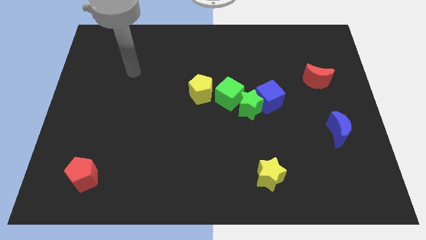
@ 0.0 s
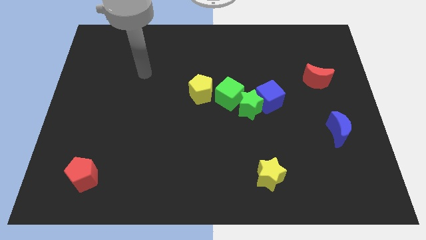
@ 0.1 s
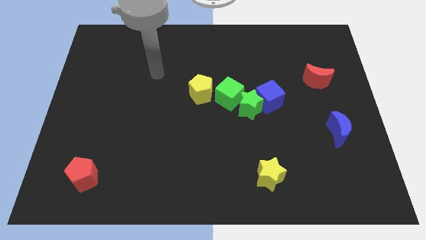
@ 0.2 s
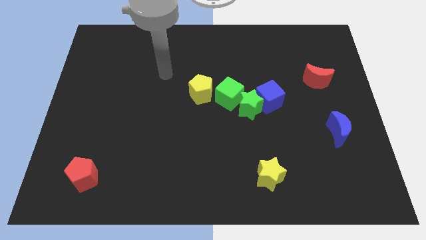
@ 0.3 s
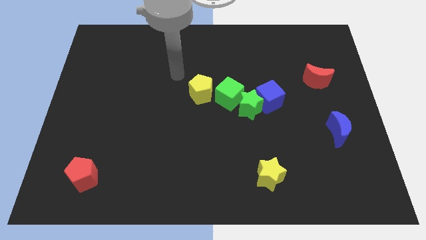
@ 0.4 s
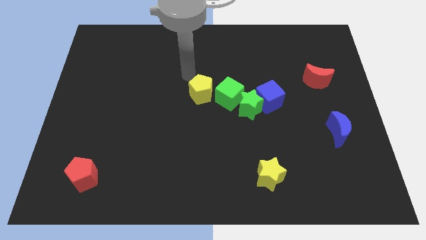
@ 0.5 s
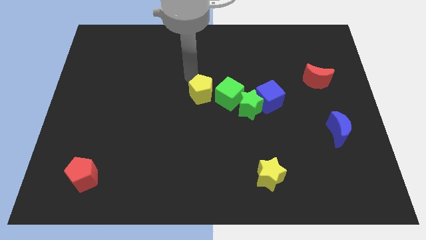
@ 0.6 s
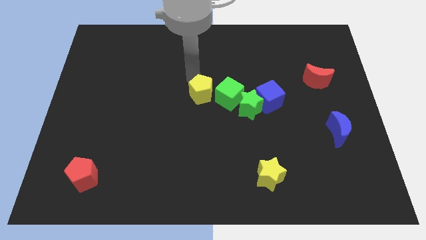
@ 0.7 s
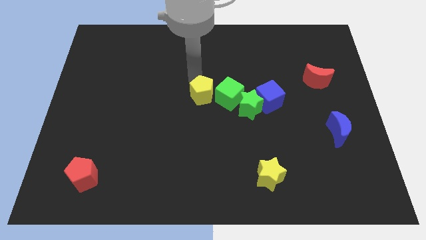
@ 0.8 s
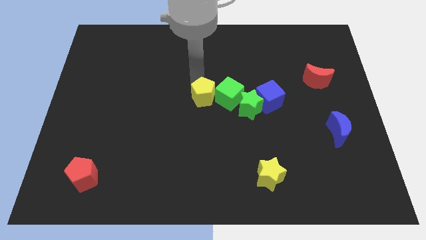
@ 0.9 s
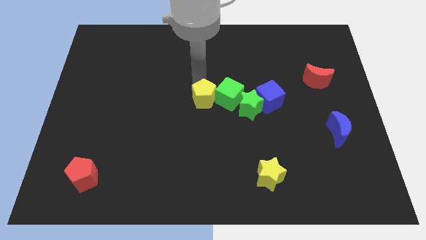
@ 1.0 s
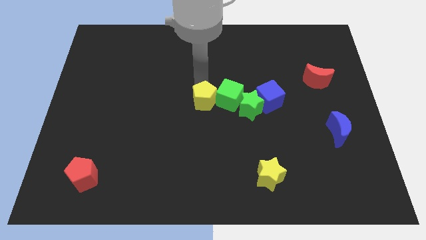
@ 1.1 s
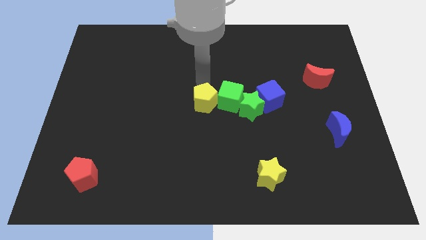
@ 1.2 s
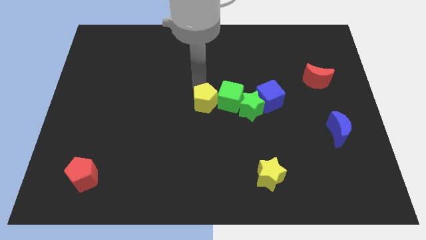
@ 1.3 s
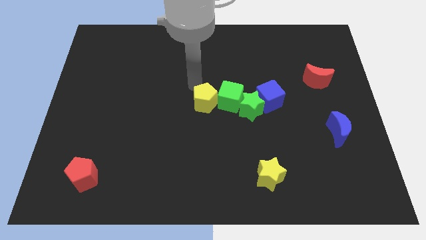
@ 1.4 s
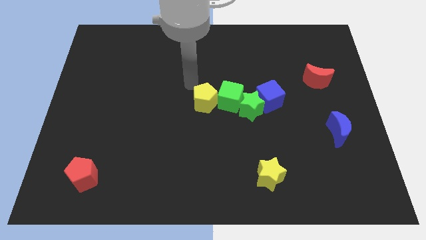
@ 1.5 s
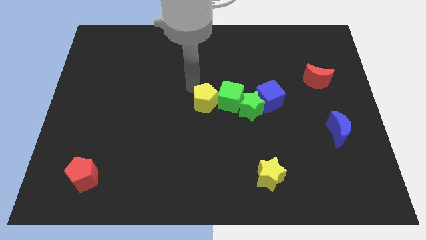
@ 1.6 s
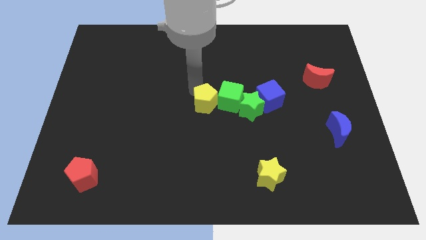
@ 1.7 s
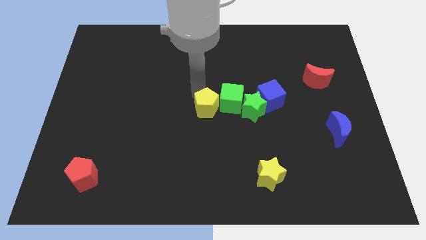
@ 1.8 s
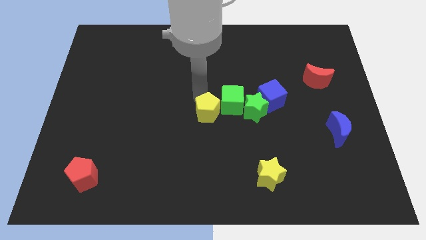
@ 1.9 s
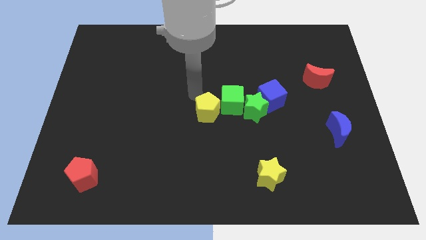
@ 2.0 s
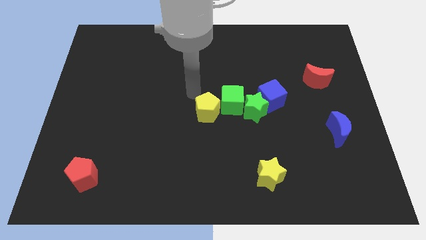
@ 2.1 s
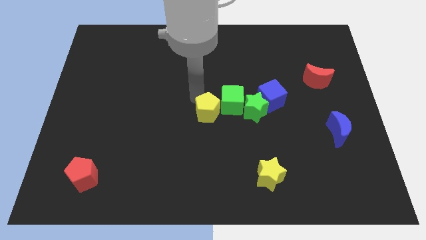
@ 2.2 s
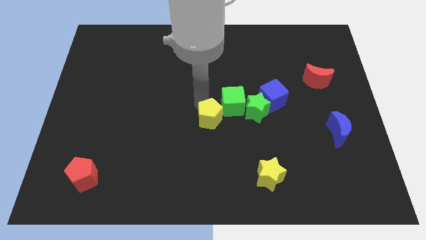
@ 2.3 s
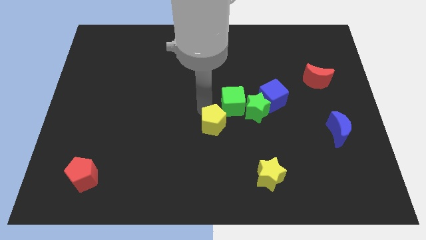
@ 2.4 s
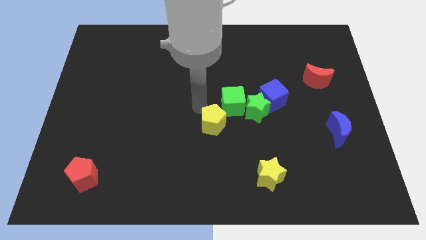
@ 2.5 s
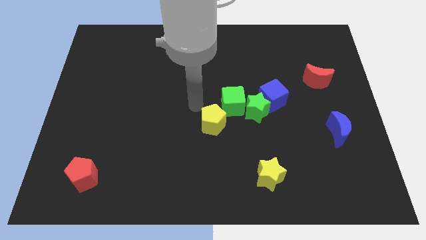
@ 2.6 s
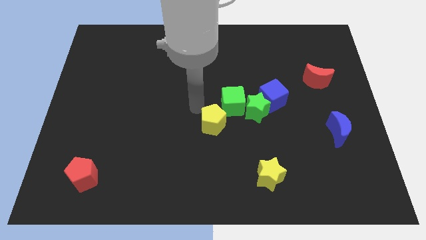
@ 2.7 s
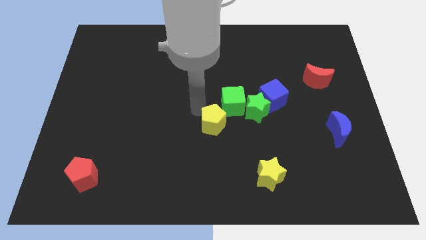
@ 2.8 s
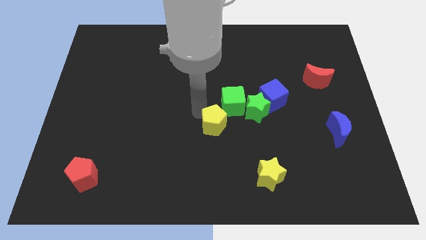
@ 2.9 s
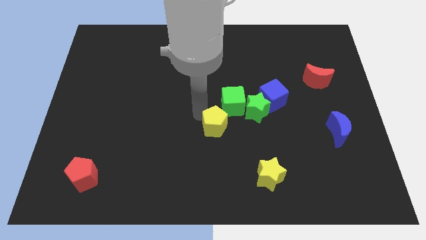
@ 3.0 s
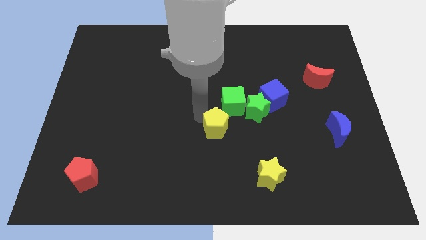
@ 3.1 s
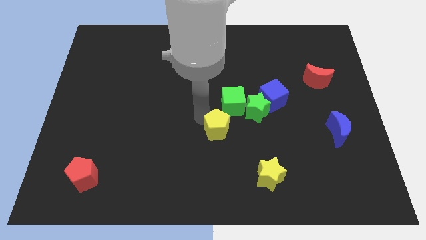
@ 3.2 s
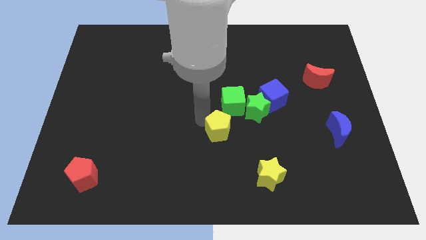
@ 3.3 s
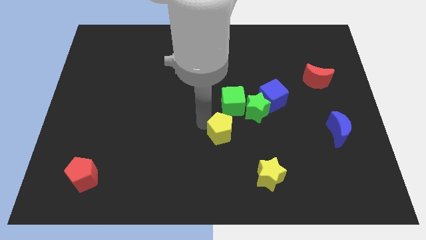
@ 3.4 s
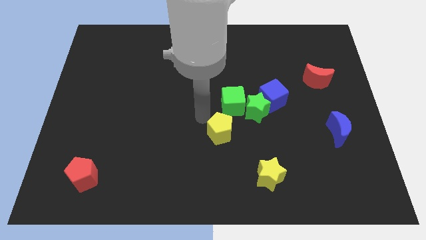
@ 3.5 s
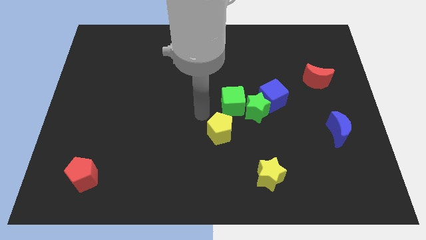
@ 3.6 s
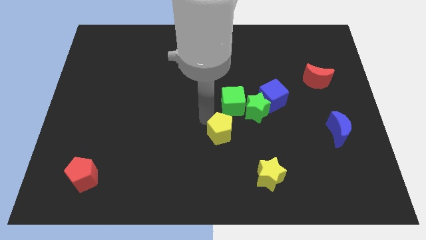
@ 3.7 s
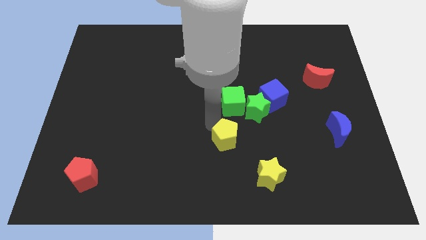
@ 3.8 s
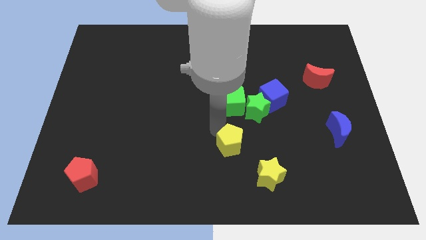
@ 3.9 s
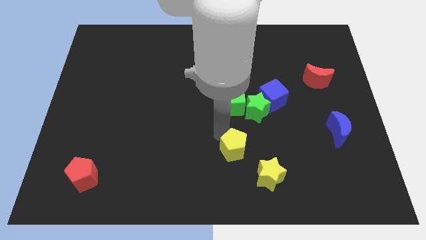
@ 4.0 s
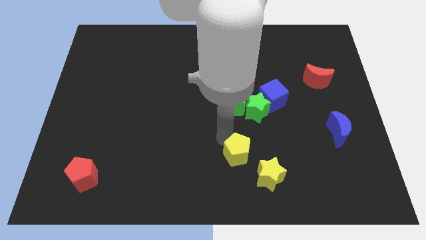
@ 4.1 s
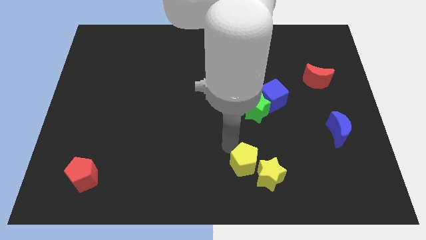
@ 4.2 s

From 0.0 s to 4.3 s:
slide the yellow pentagon towards the yellow star

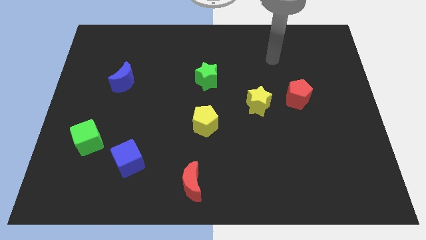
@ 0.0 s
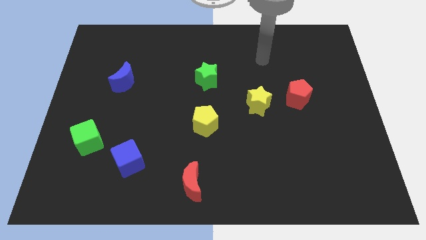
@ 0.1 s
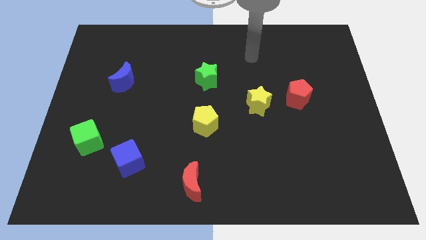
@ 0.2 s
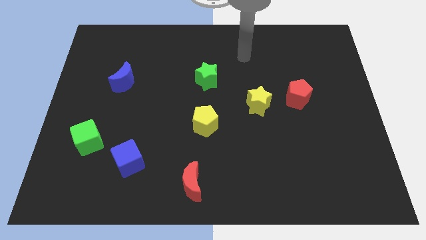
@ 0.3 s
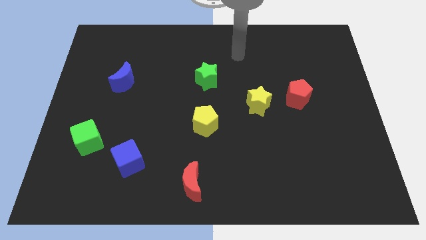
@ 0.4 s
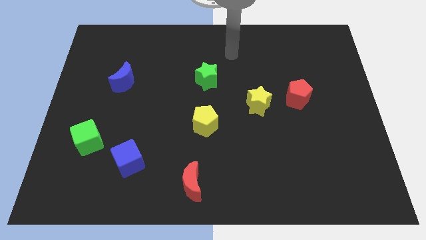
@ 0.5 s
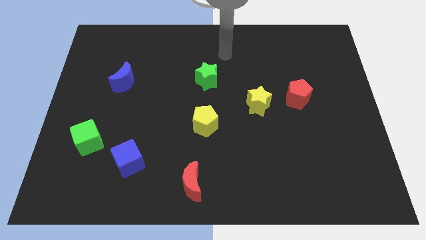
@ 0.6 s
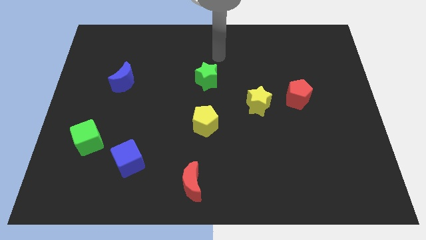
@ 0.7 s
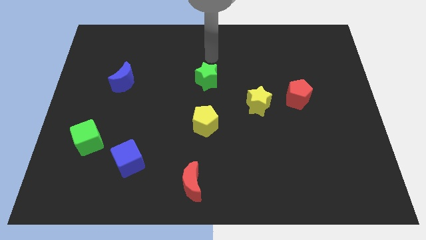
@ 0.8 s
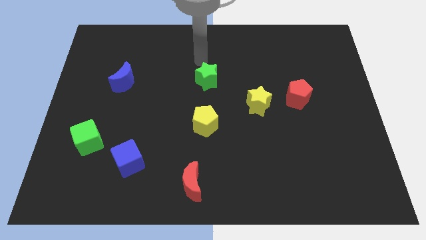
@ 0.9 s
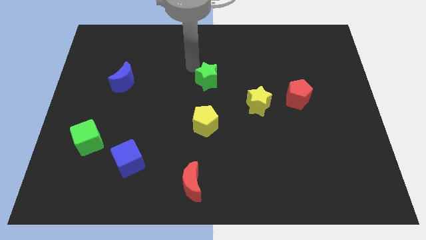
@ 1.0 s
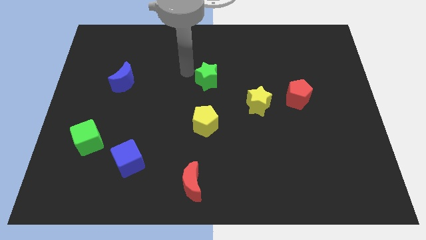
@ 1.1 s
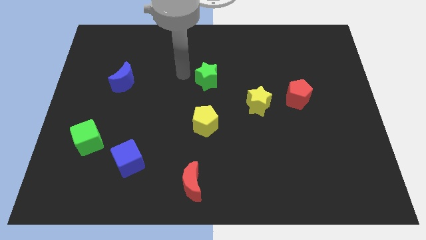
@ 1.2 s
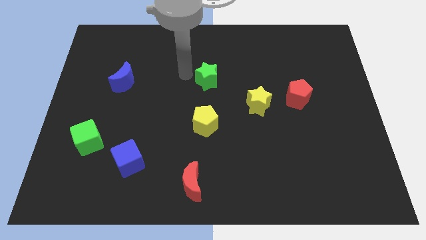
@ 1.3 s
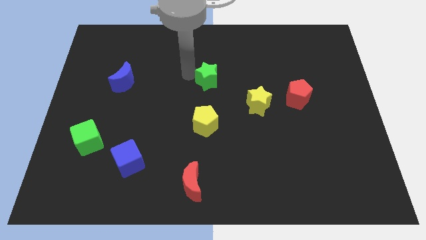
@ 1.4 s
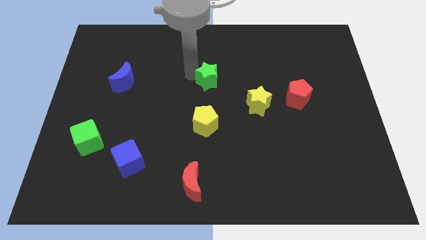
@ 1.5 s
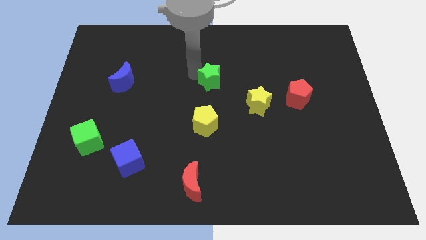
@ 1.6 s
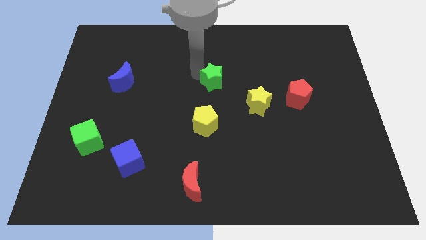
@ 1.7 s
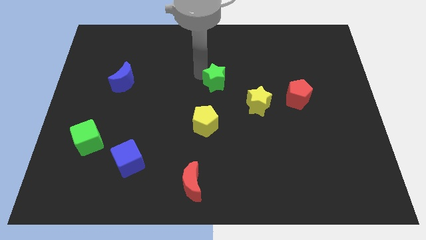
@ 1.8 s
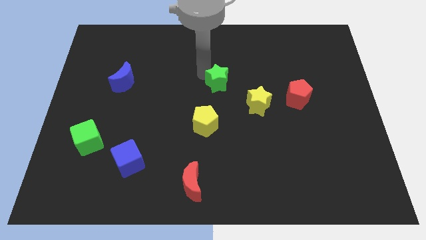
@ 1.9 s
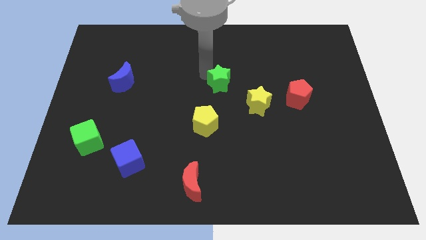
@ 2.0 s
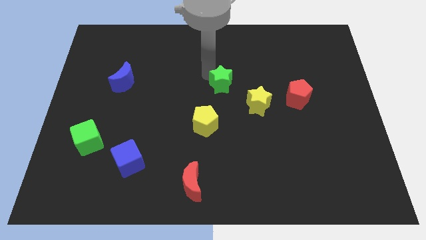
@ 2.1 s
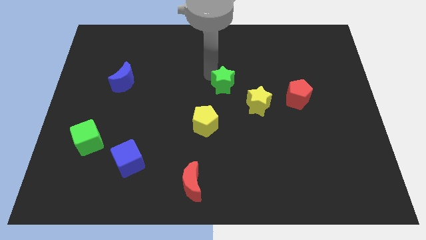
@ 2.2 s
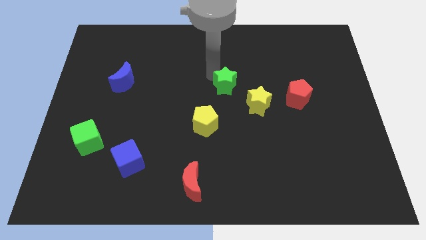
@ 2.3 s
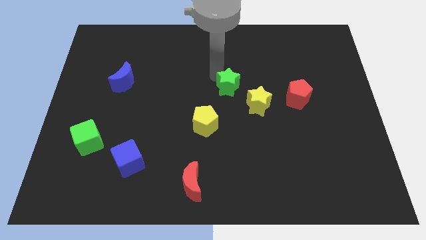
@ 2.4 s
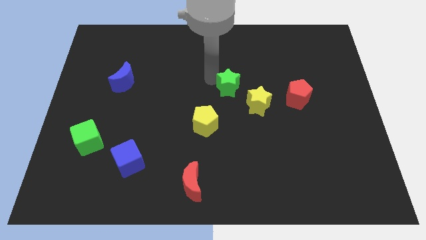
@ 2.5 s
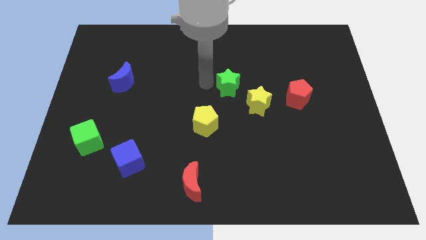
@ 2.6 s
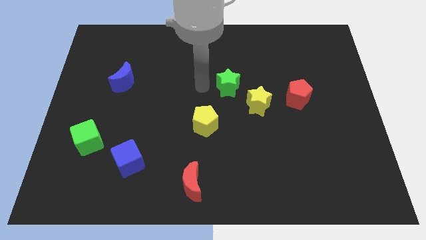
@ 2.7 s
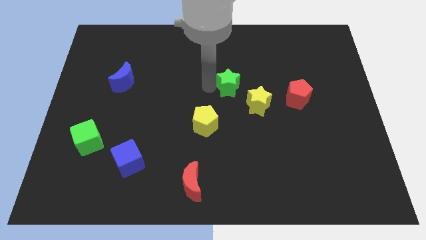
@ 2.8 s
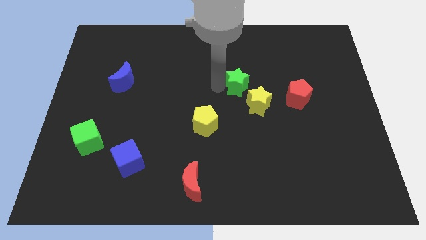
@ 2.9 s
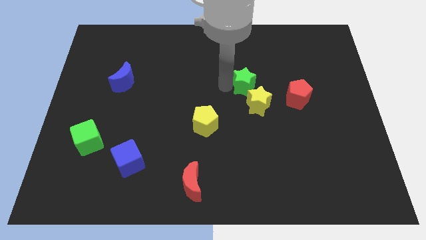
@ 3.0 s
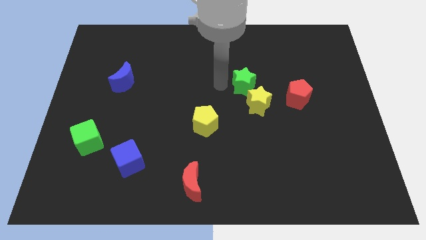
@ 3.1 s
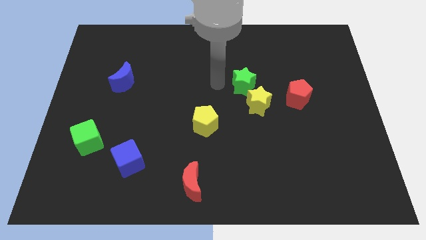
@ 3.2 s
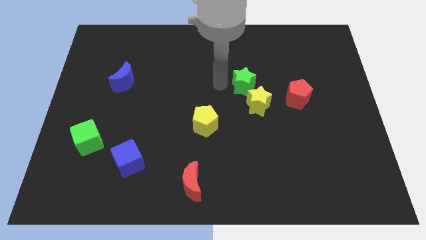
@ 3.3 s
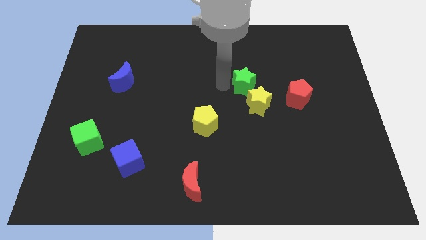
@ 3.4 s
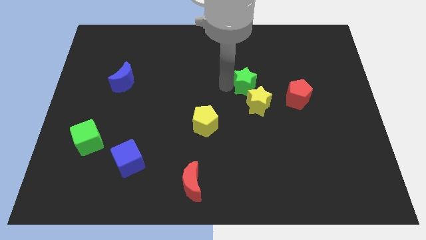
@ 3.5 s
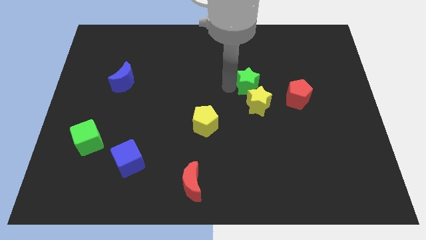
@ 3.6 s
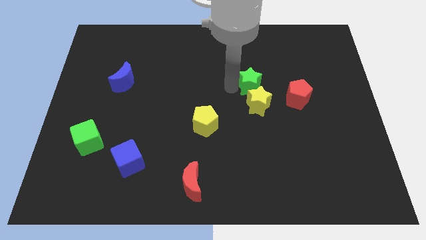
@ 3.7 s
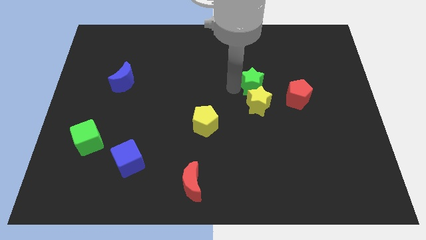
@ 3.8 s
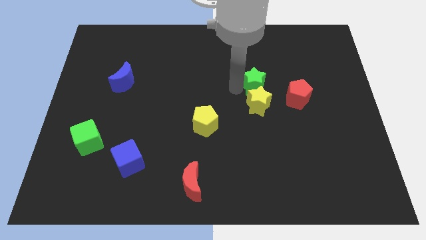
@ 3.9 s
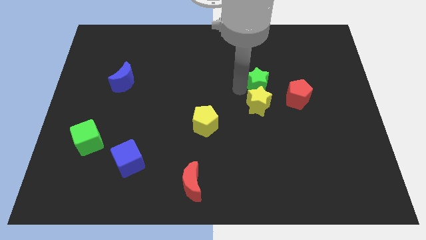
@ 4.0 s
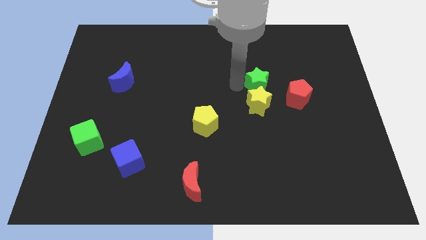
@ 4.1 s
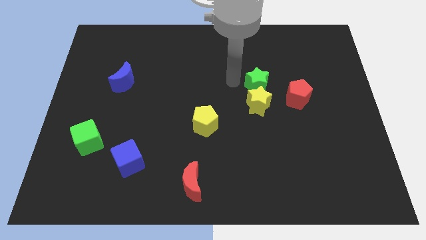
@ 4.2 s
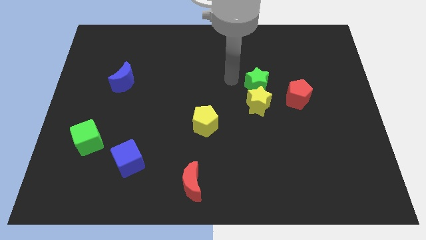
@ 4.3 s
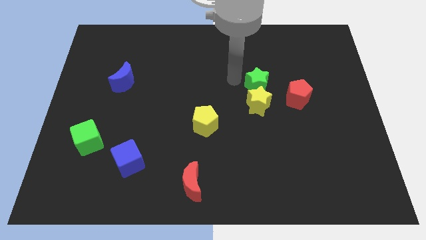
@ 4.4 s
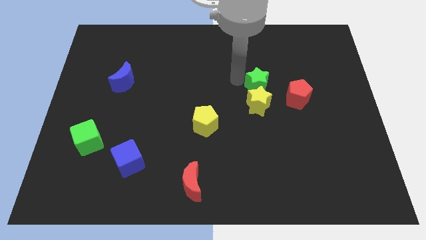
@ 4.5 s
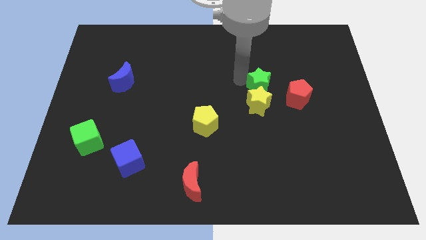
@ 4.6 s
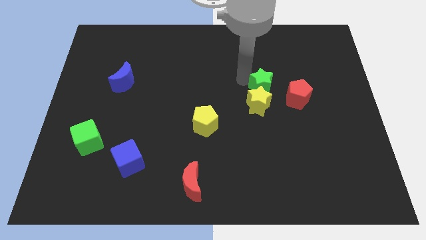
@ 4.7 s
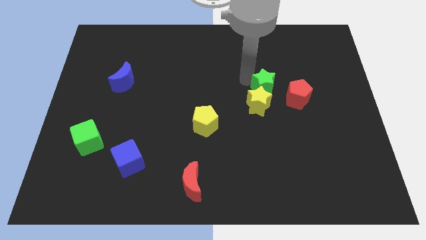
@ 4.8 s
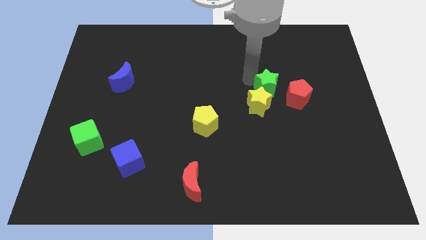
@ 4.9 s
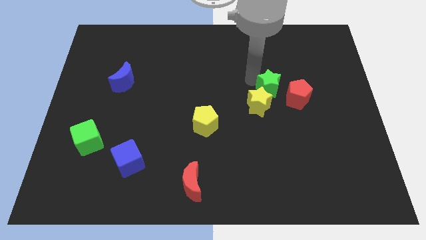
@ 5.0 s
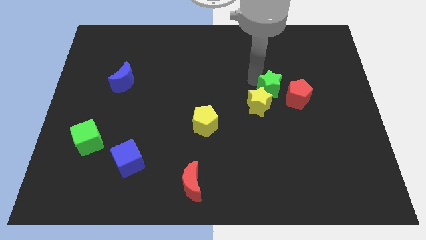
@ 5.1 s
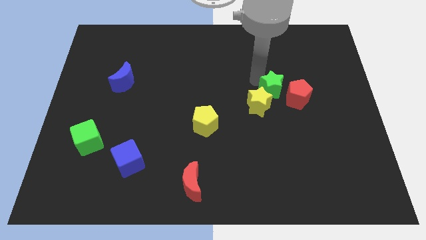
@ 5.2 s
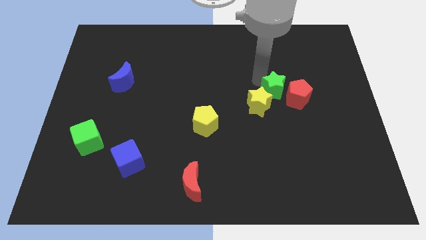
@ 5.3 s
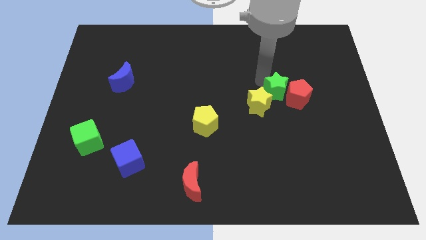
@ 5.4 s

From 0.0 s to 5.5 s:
slide the green star towards the red pentagon
